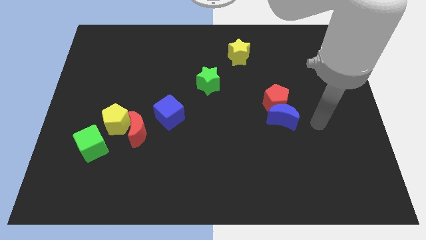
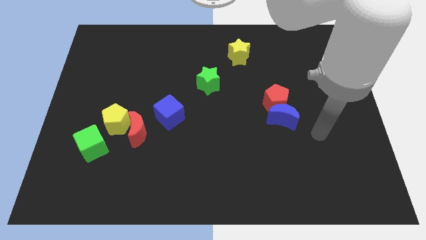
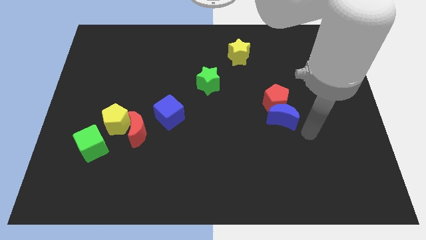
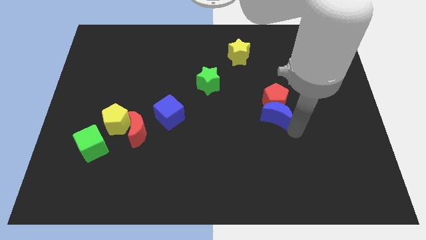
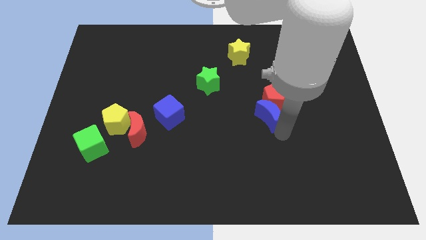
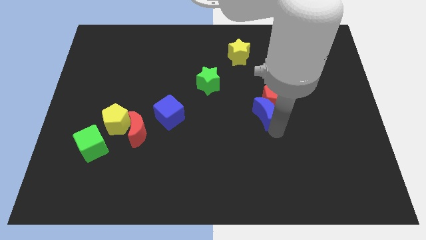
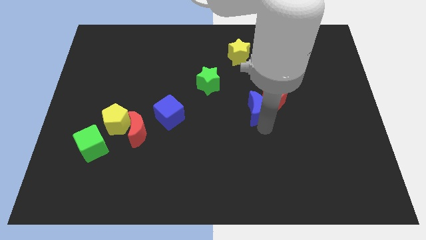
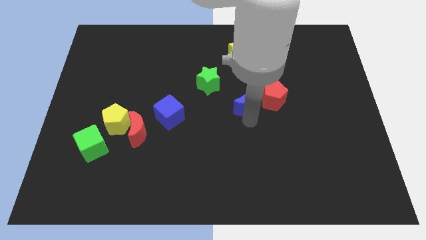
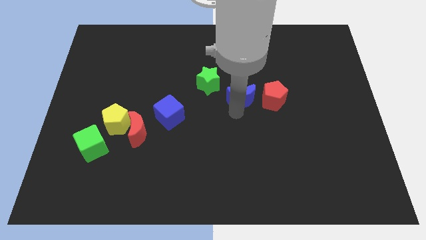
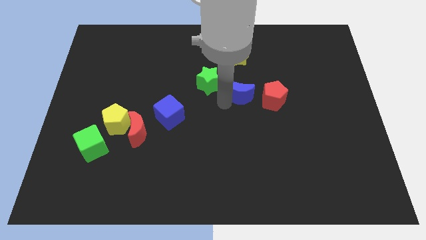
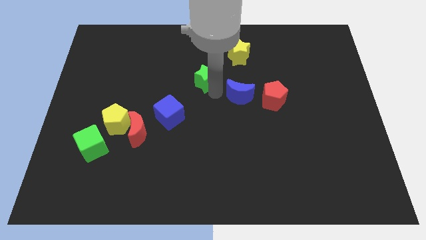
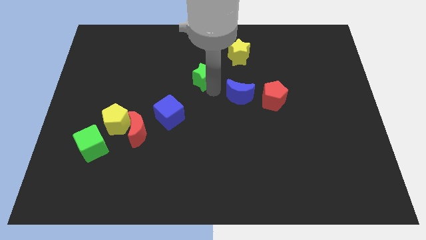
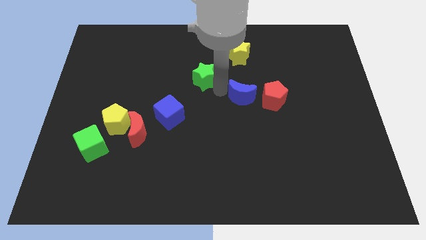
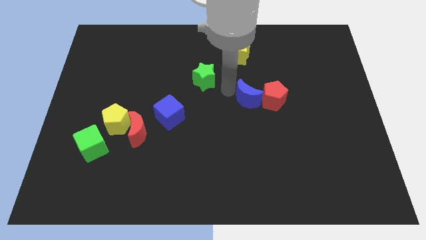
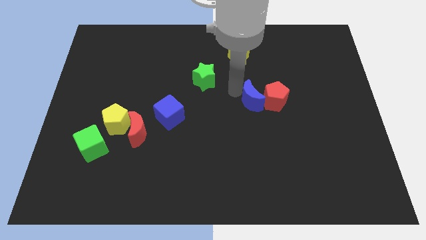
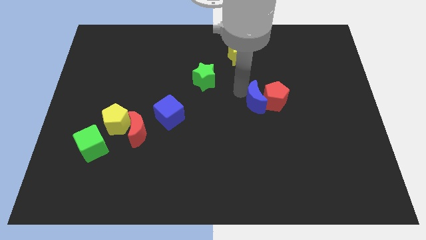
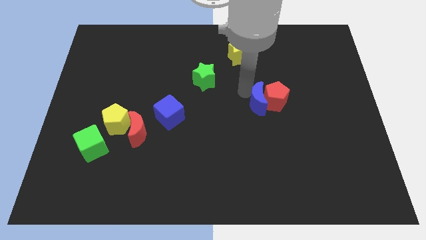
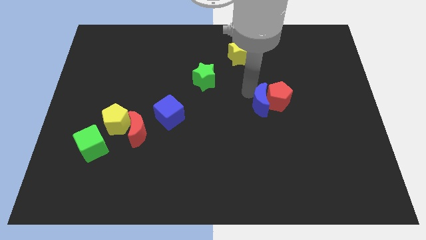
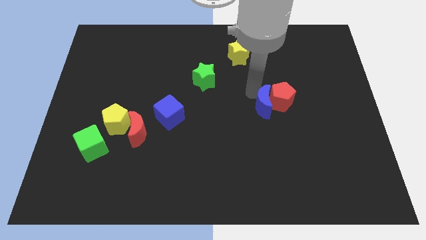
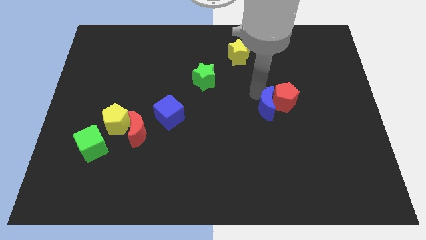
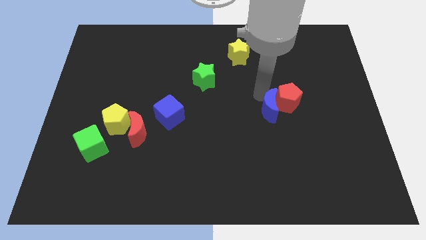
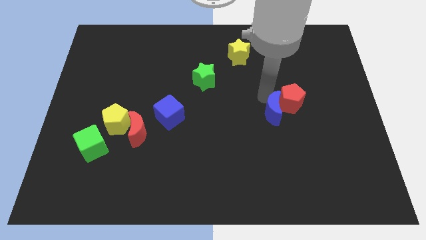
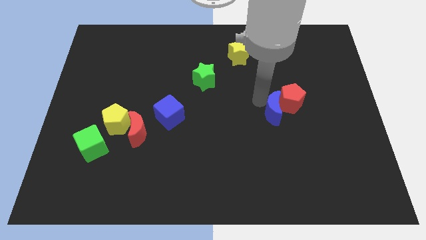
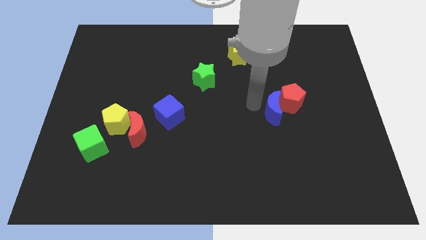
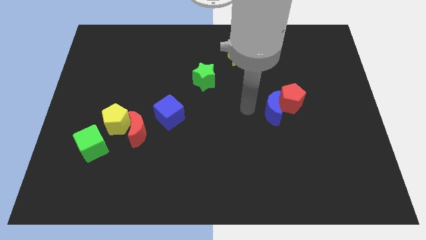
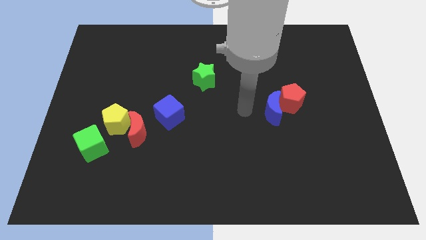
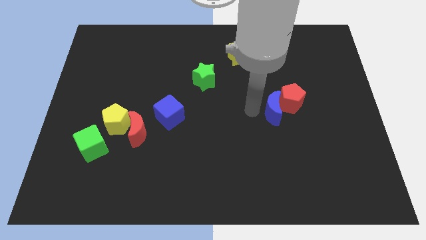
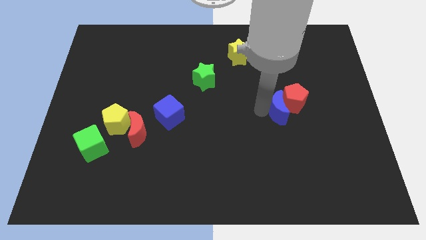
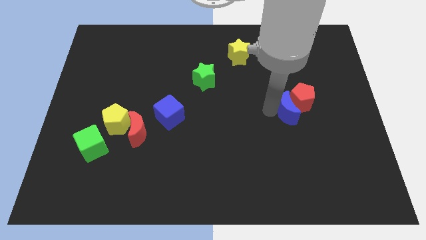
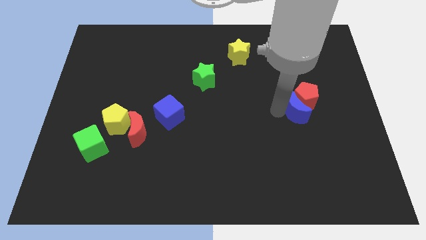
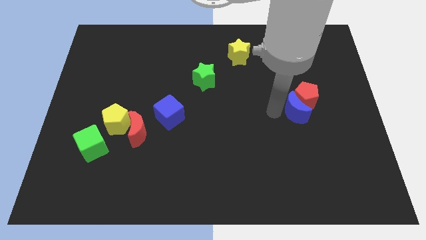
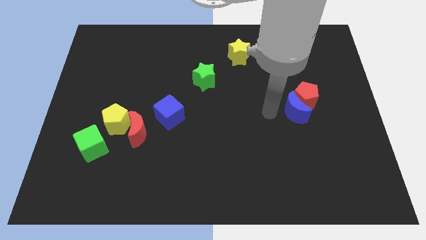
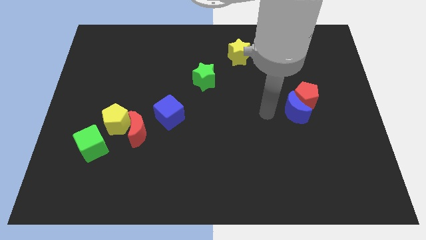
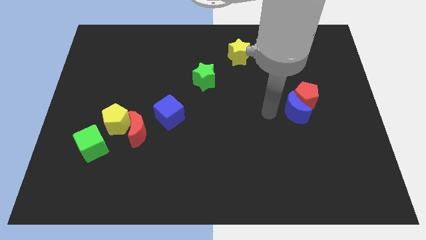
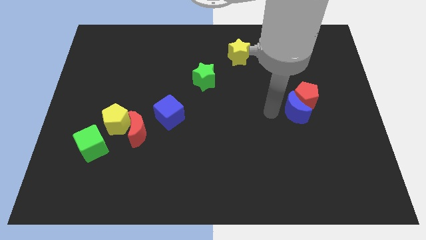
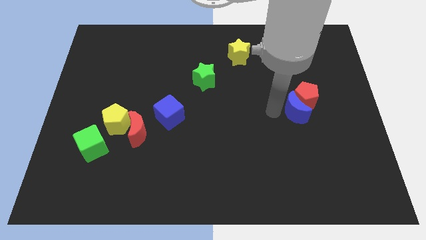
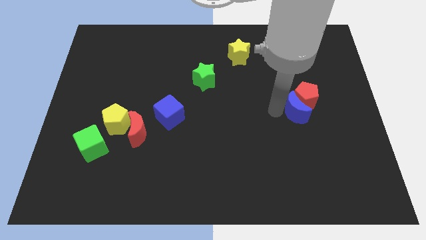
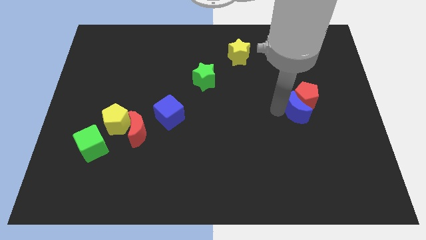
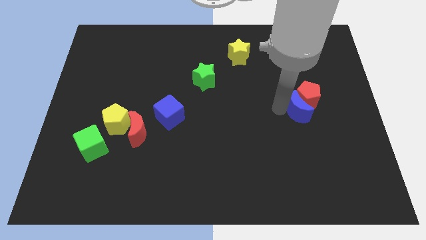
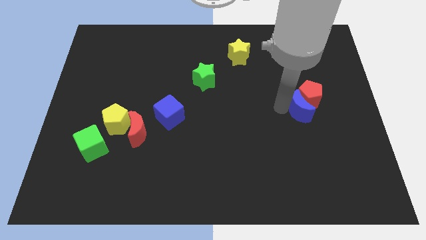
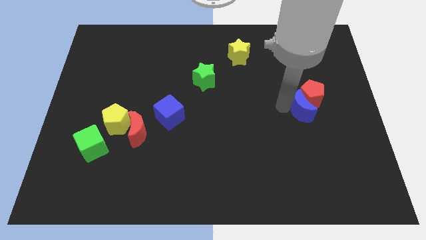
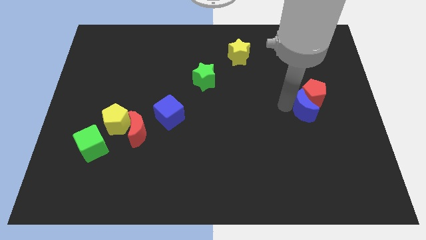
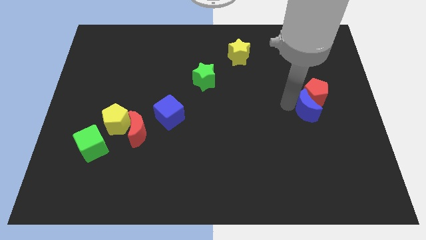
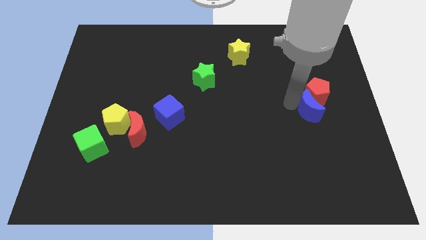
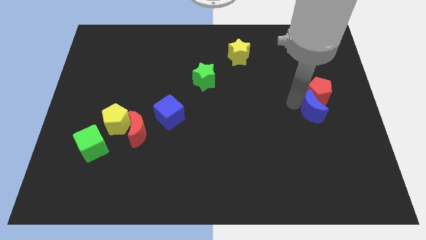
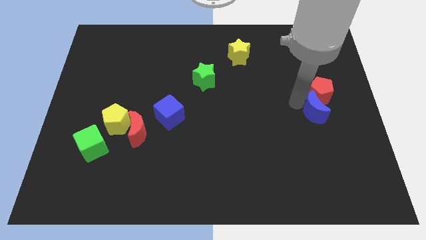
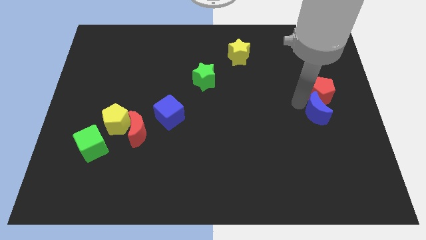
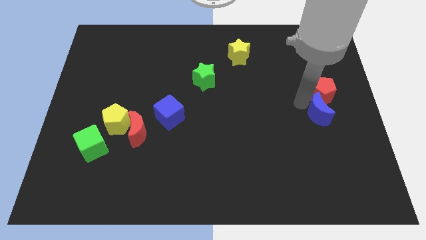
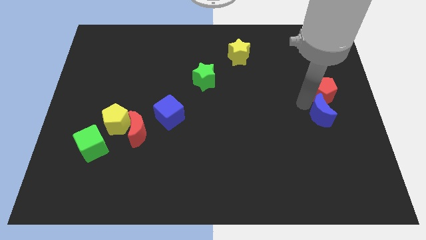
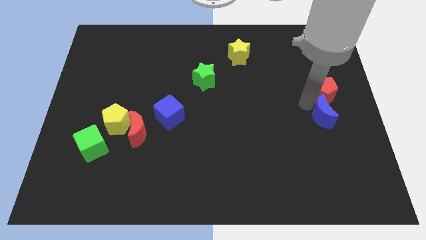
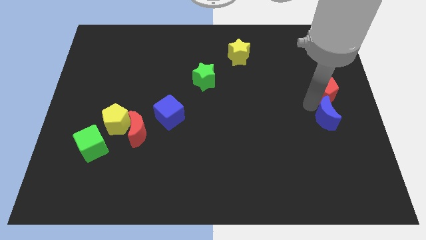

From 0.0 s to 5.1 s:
push the blue moon to the right side

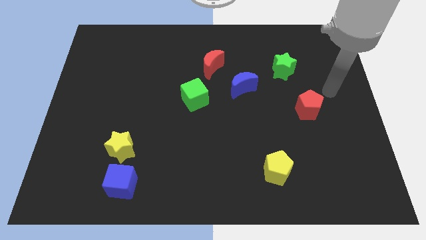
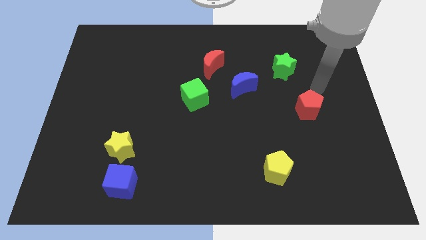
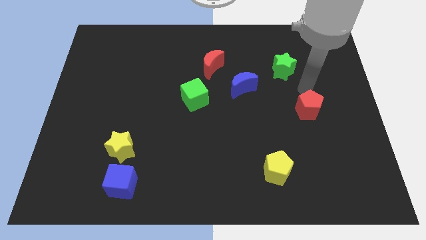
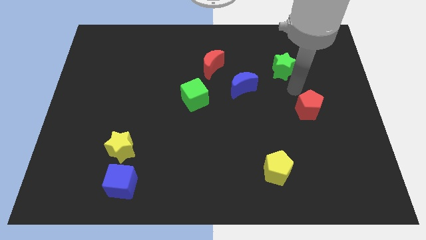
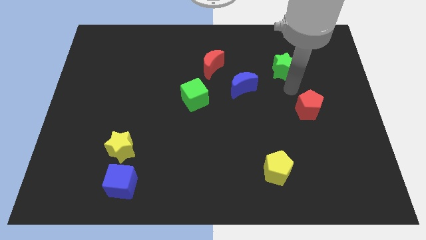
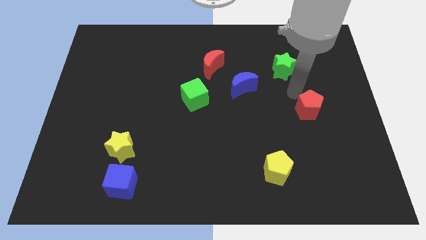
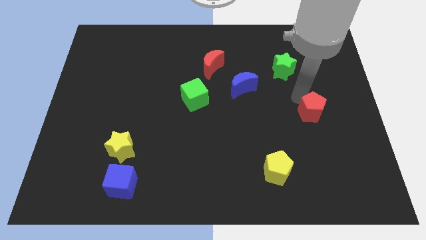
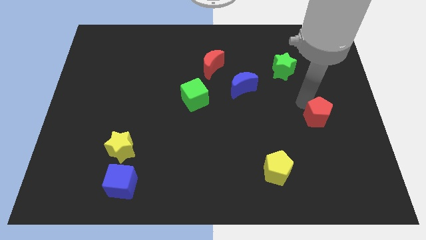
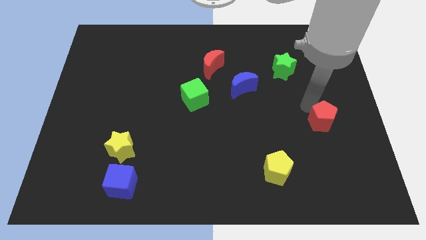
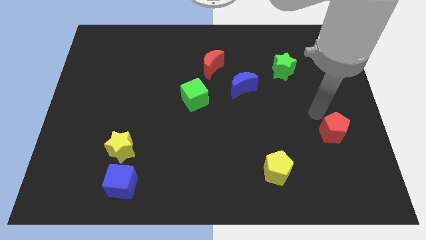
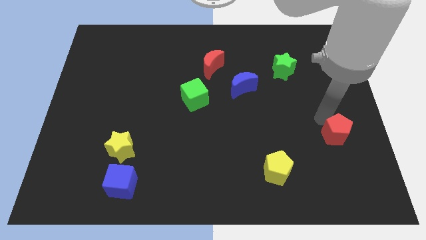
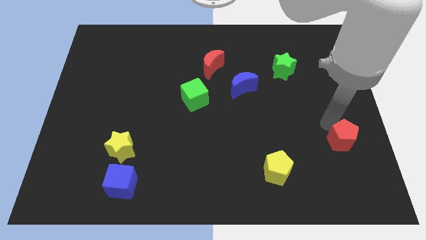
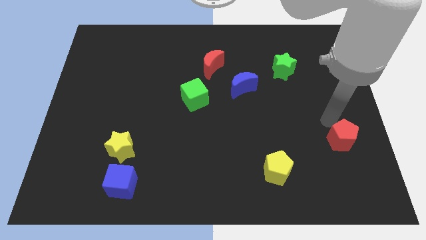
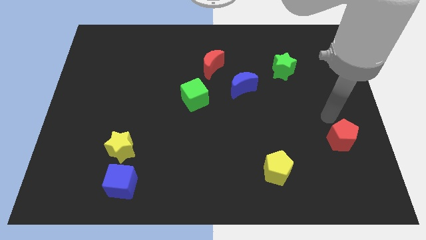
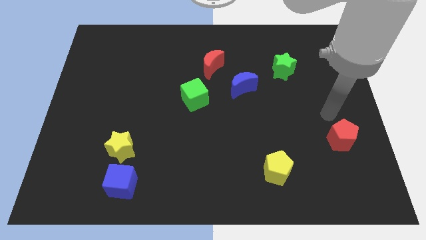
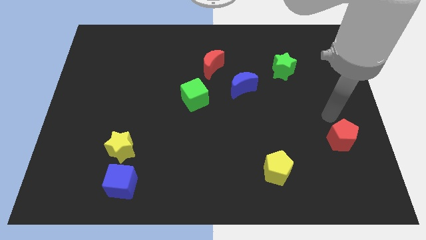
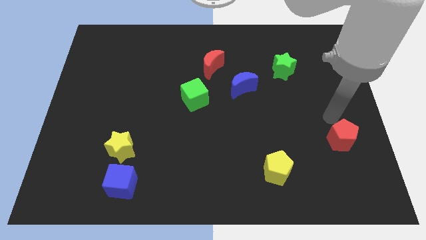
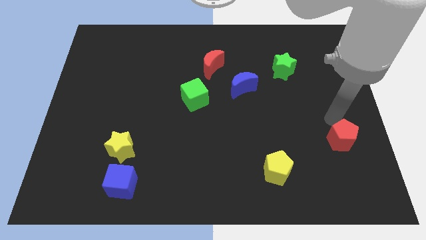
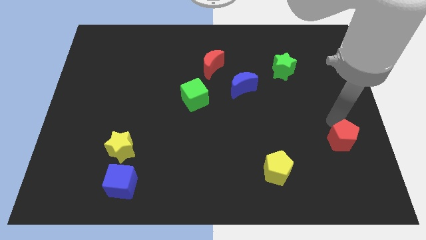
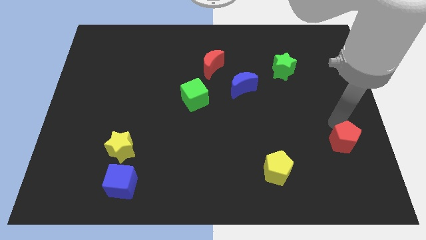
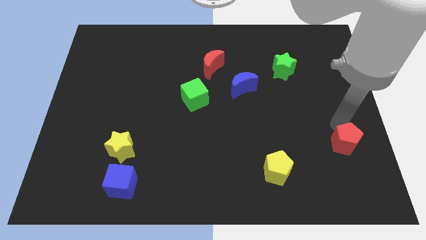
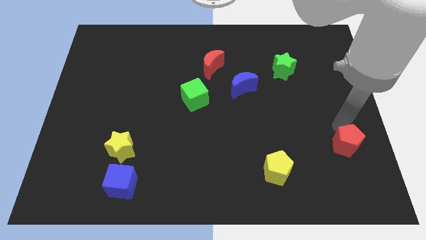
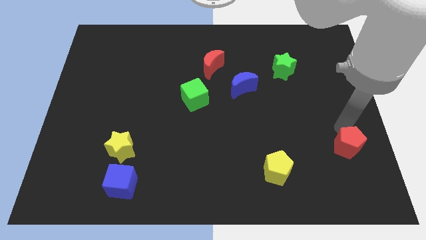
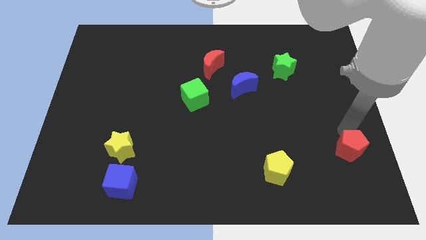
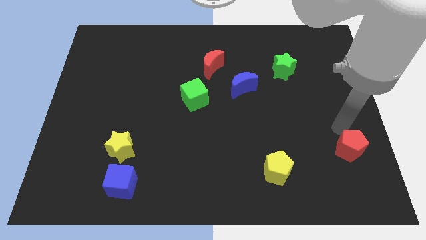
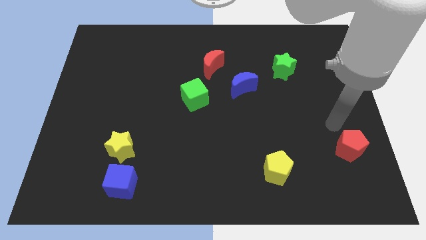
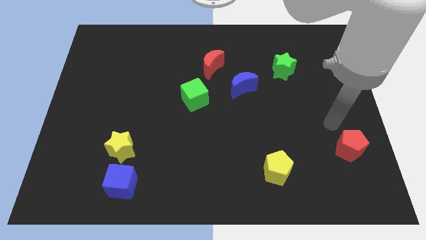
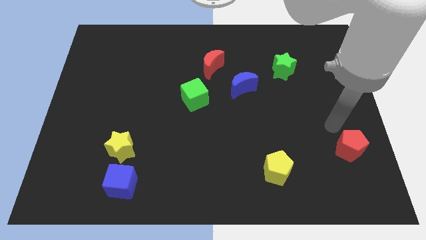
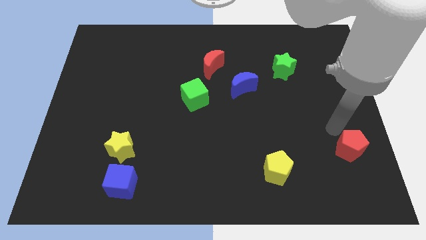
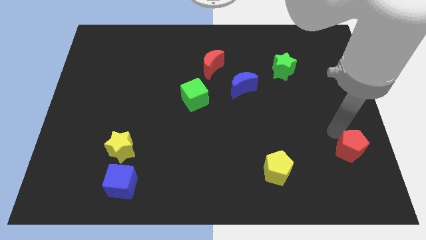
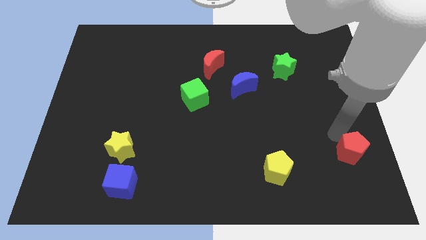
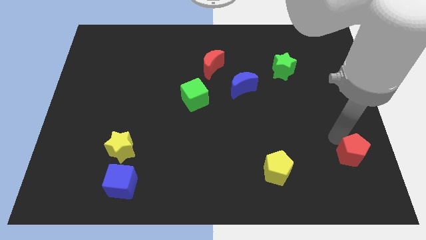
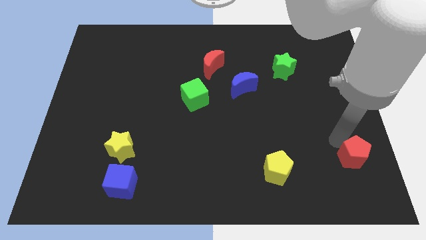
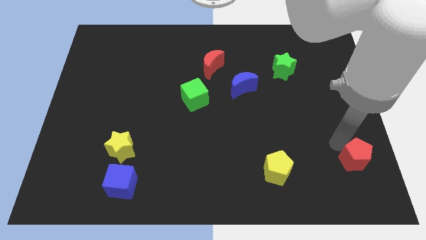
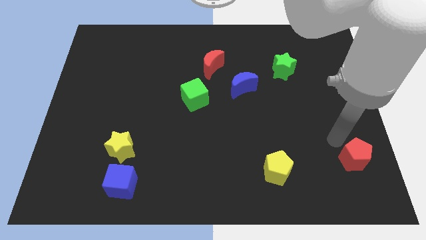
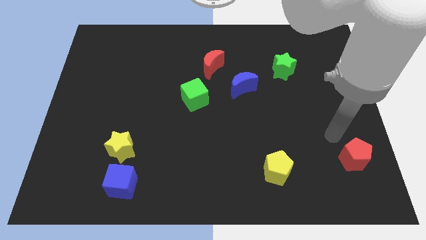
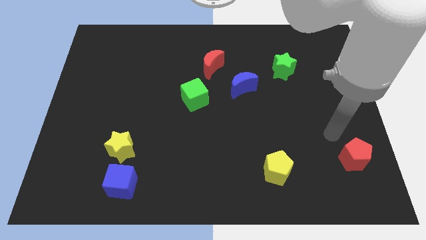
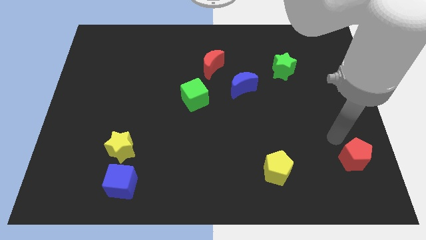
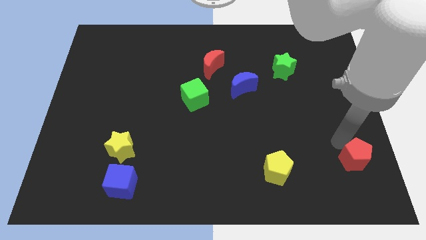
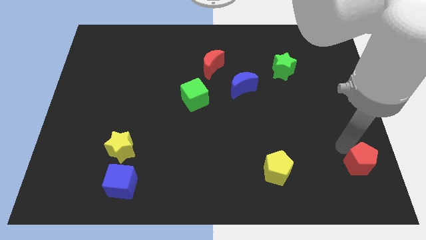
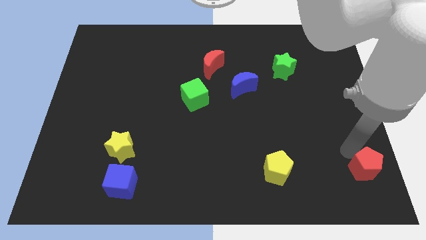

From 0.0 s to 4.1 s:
move the red pentagon to the bottom right corner
